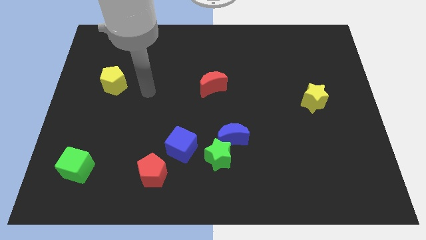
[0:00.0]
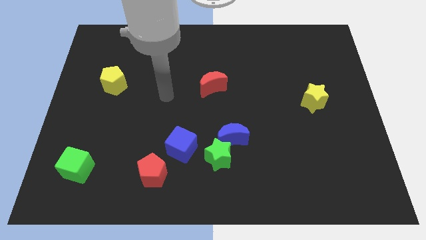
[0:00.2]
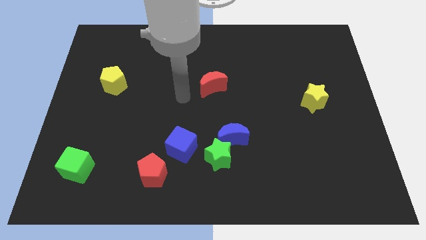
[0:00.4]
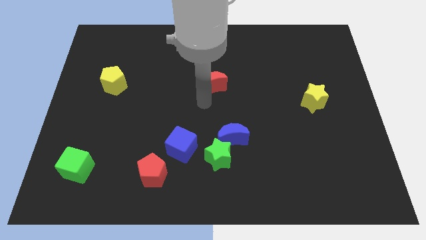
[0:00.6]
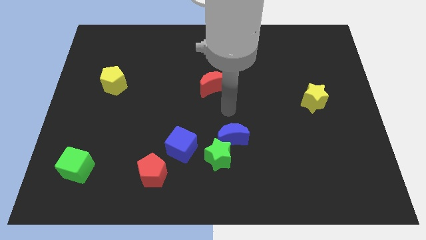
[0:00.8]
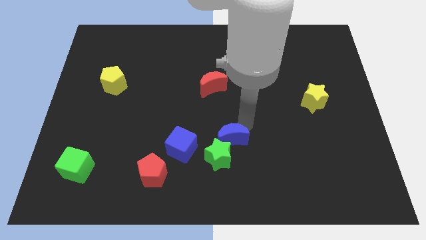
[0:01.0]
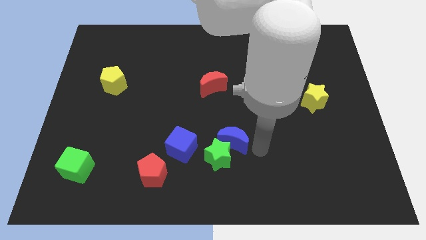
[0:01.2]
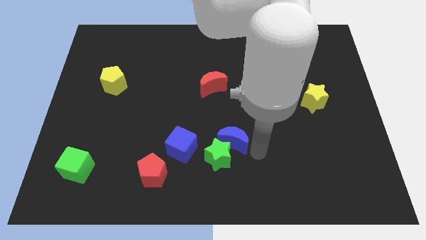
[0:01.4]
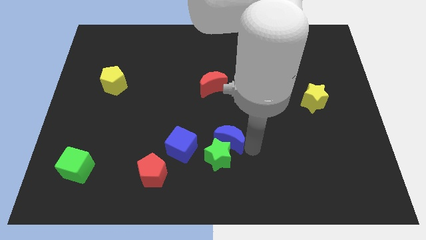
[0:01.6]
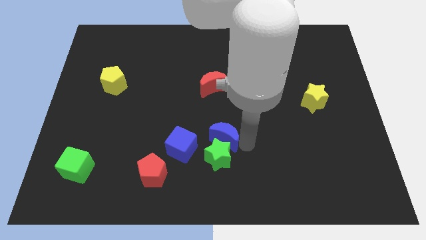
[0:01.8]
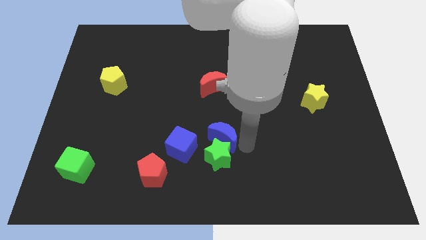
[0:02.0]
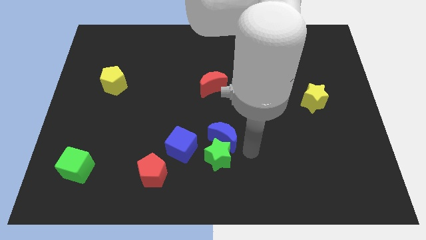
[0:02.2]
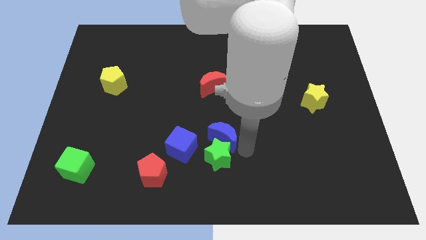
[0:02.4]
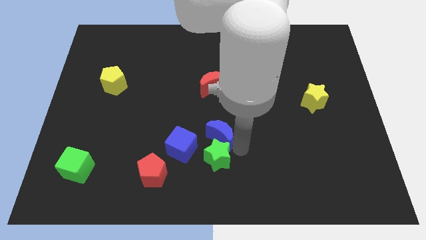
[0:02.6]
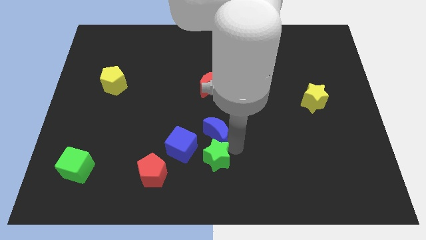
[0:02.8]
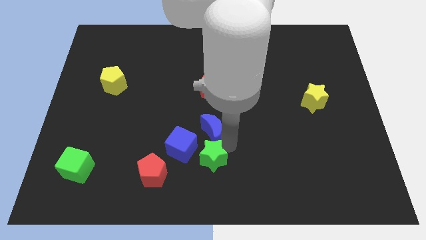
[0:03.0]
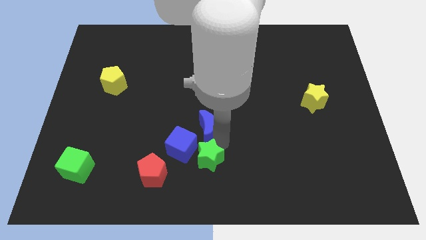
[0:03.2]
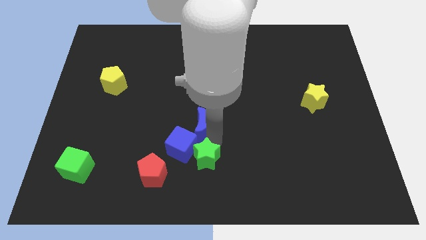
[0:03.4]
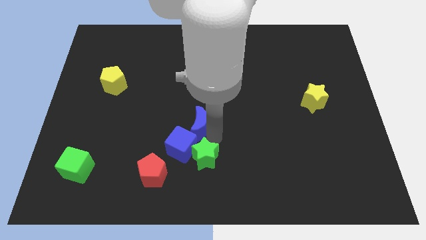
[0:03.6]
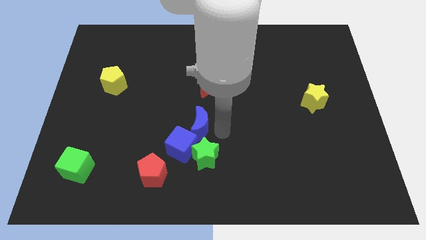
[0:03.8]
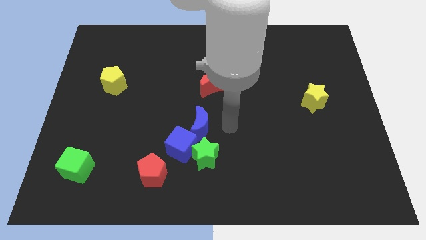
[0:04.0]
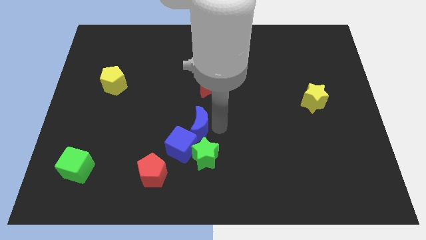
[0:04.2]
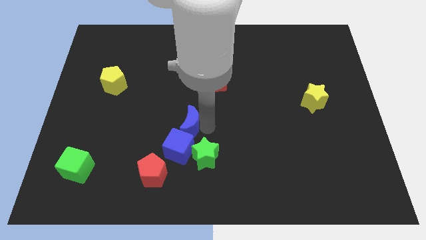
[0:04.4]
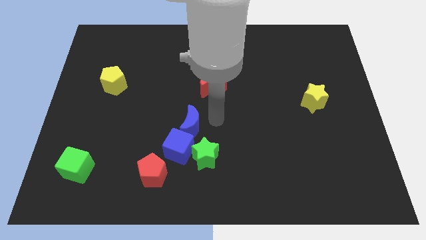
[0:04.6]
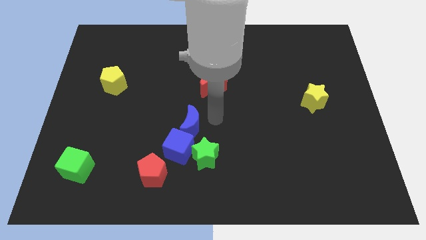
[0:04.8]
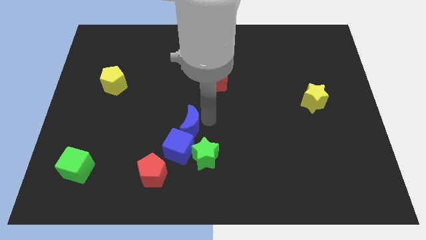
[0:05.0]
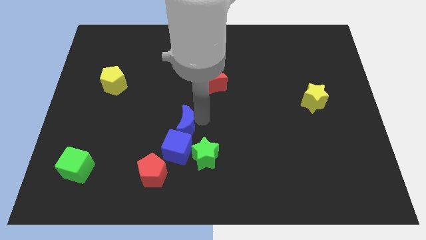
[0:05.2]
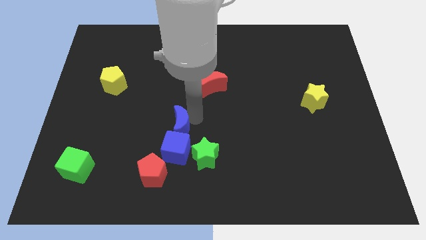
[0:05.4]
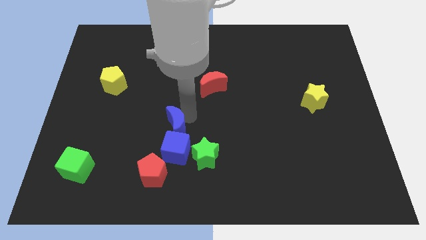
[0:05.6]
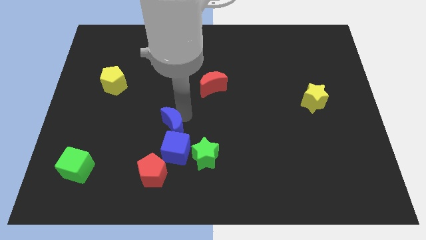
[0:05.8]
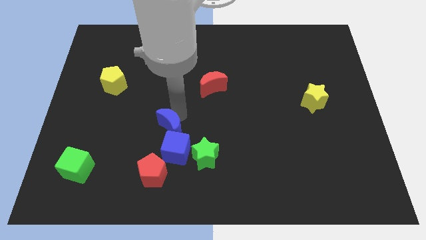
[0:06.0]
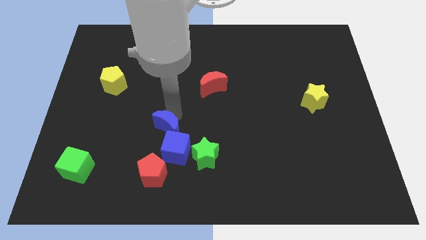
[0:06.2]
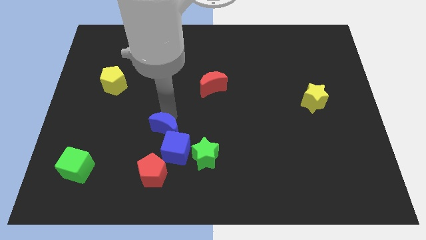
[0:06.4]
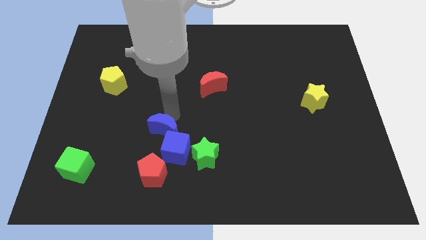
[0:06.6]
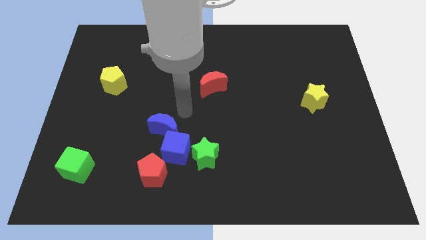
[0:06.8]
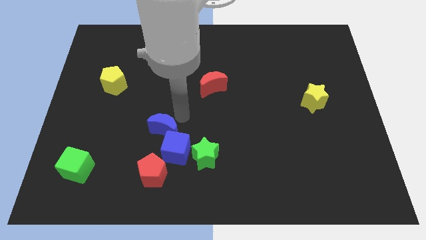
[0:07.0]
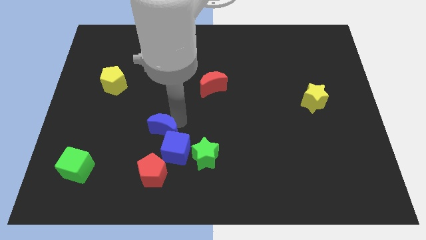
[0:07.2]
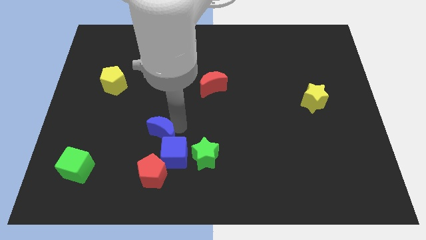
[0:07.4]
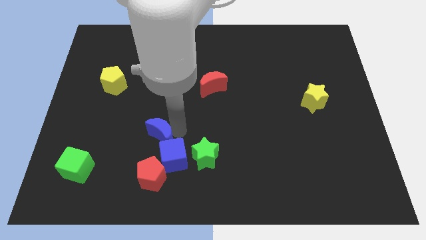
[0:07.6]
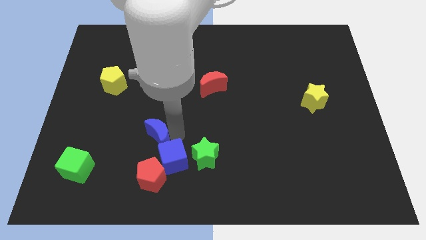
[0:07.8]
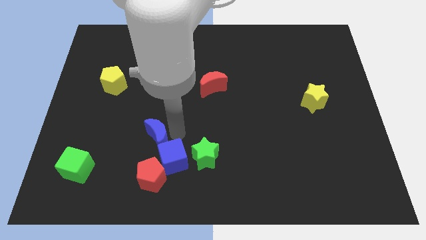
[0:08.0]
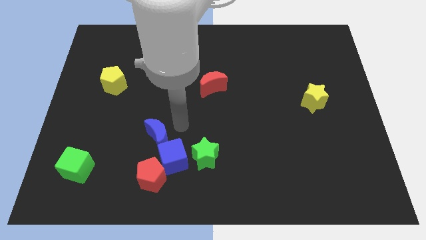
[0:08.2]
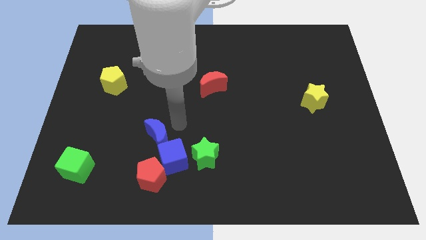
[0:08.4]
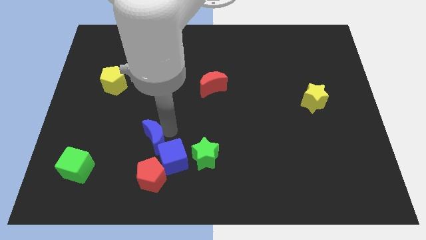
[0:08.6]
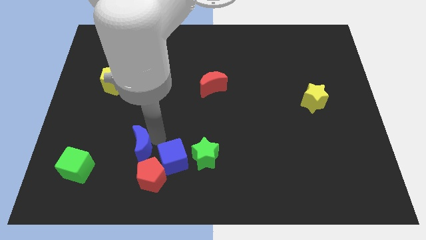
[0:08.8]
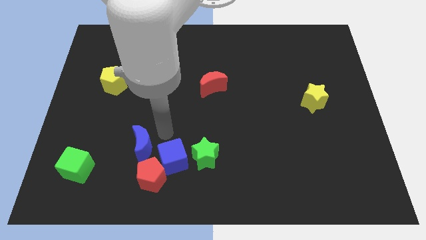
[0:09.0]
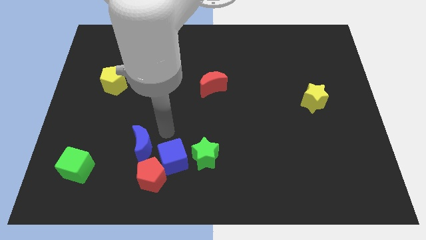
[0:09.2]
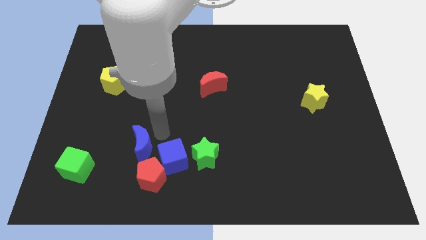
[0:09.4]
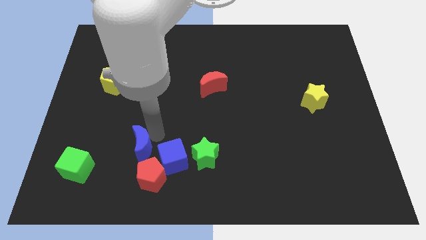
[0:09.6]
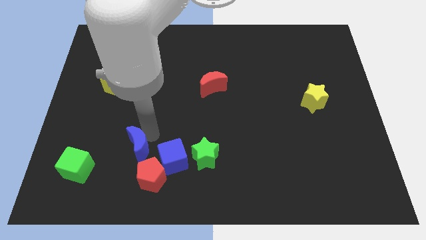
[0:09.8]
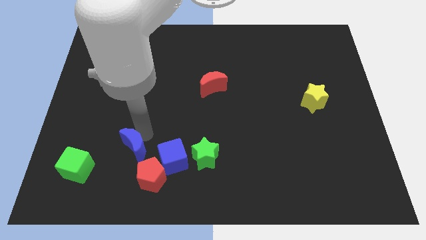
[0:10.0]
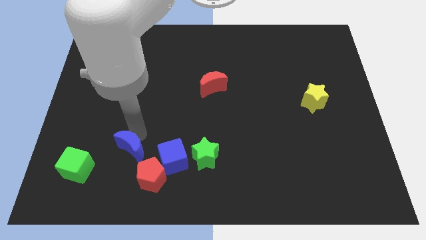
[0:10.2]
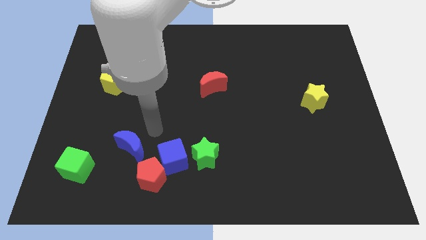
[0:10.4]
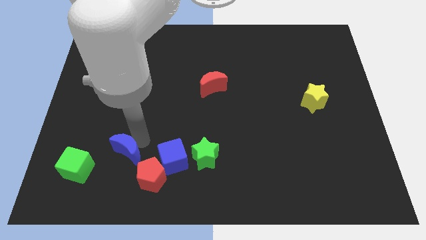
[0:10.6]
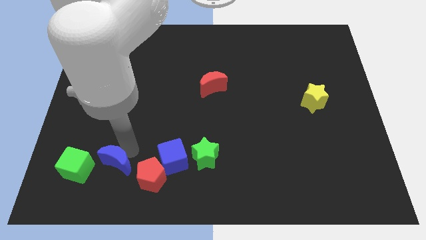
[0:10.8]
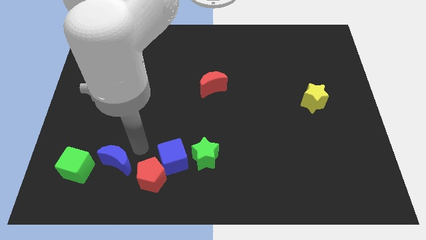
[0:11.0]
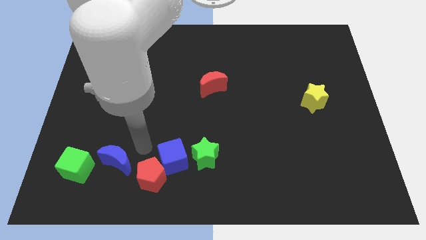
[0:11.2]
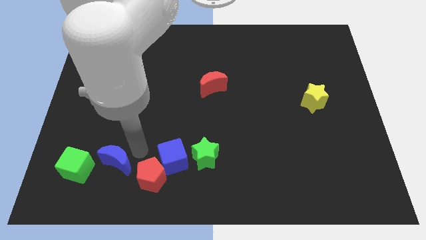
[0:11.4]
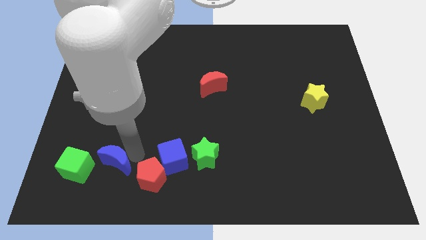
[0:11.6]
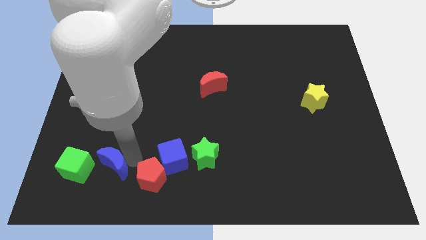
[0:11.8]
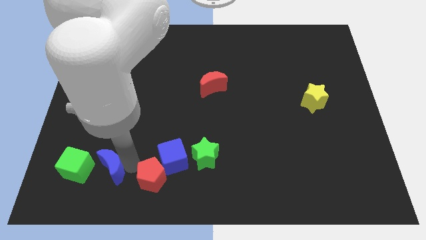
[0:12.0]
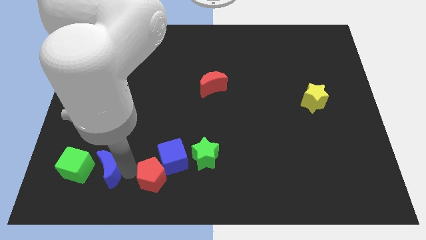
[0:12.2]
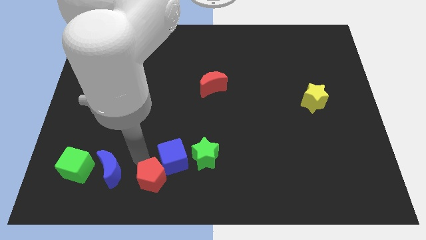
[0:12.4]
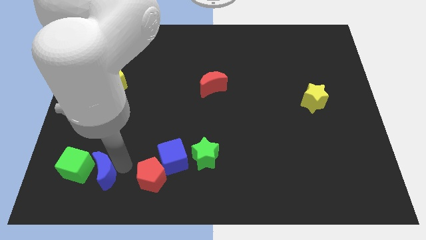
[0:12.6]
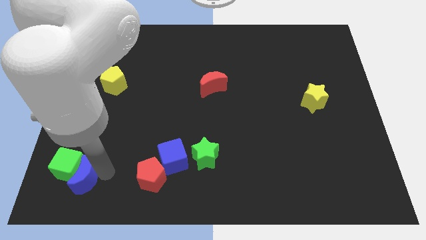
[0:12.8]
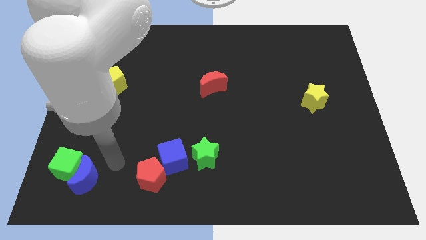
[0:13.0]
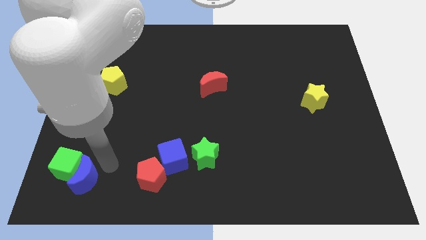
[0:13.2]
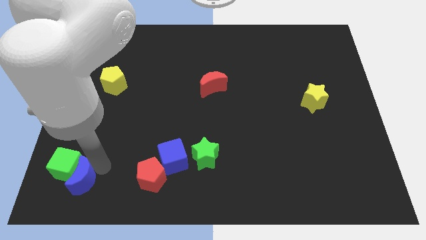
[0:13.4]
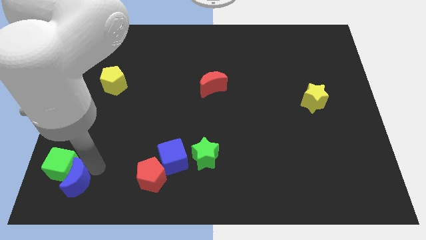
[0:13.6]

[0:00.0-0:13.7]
push the blue moon to the bottom left corner
